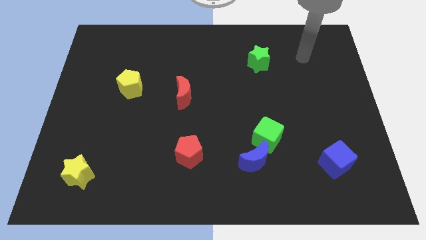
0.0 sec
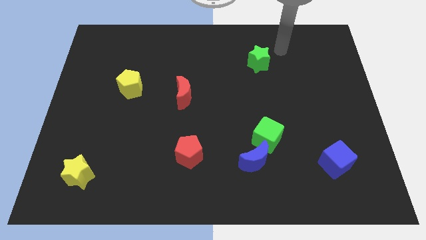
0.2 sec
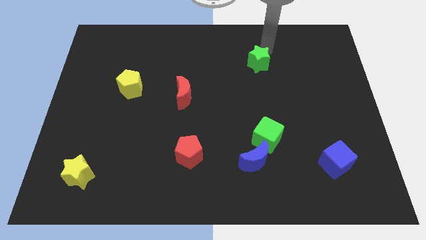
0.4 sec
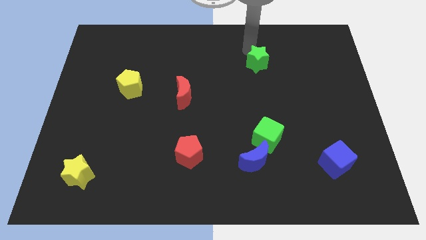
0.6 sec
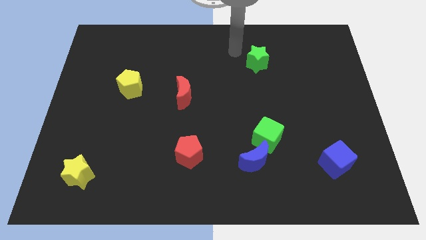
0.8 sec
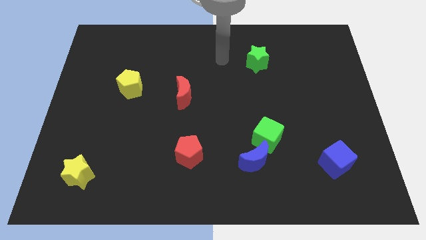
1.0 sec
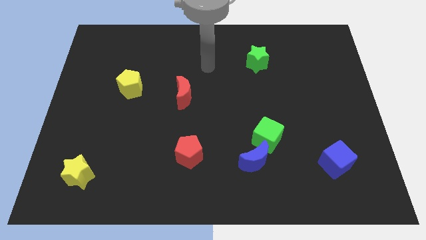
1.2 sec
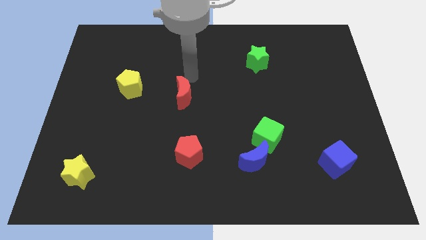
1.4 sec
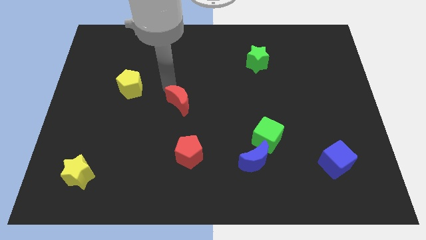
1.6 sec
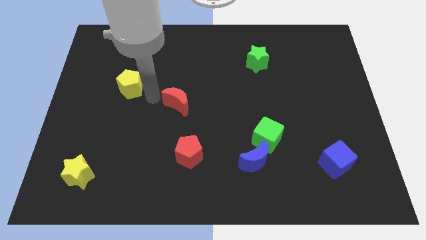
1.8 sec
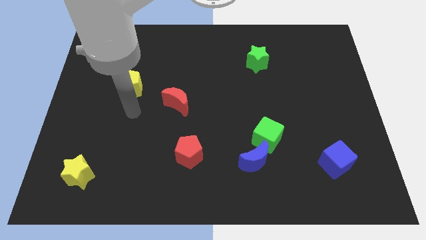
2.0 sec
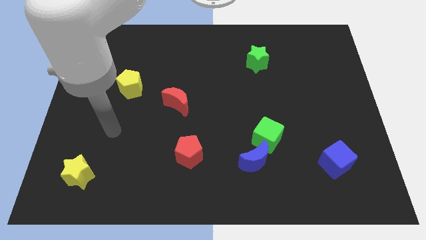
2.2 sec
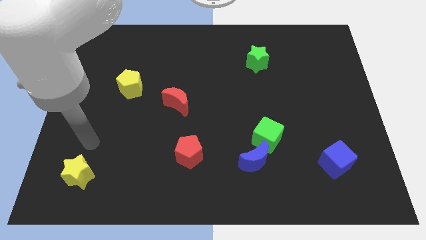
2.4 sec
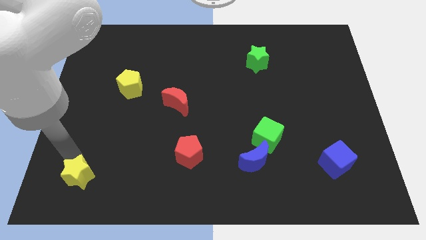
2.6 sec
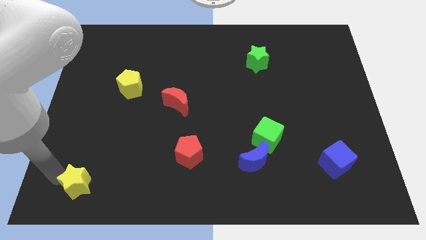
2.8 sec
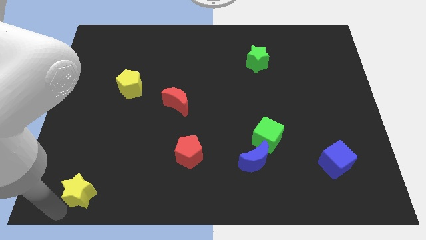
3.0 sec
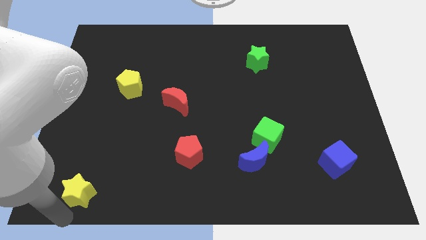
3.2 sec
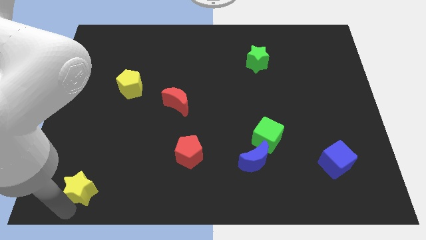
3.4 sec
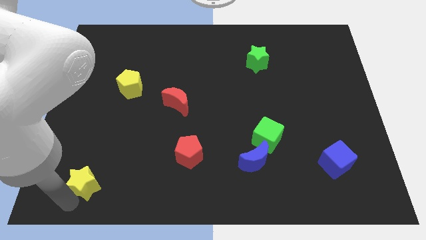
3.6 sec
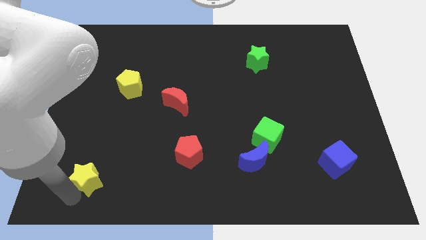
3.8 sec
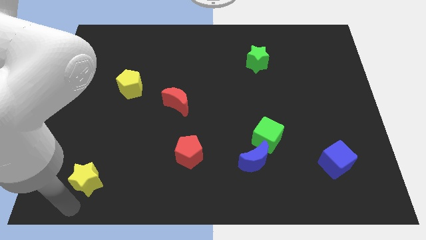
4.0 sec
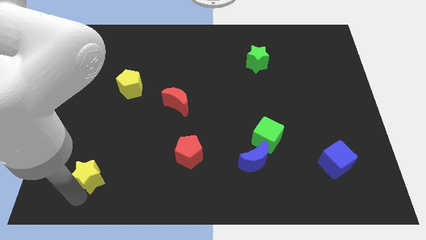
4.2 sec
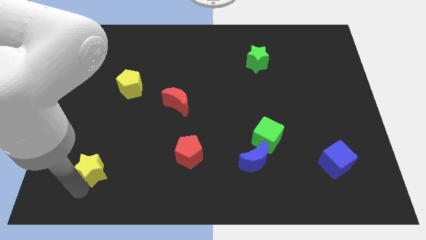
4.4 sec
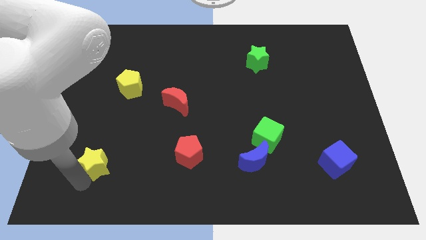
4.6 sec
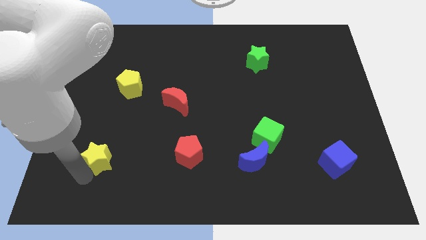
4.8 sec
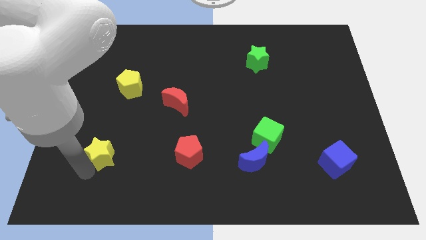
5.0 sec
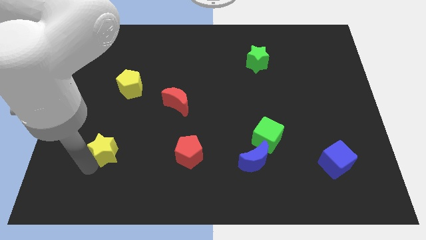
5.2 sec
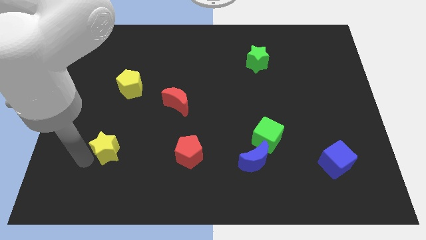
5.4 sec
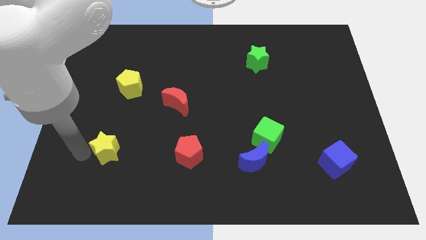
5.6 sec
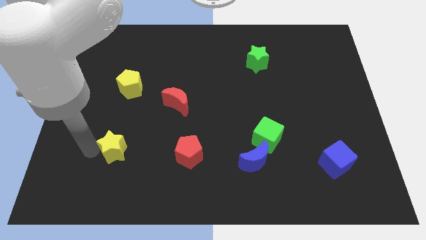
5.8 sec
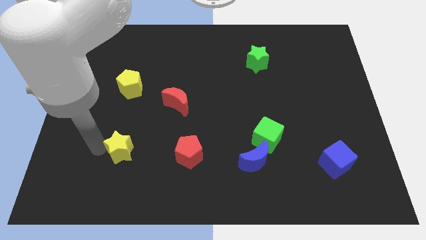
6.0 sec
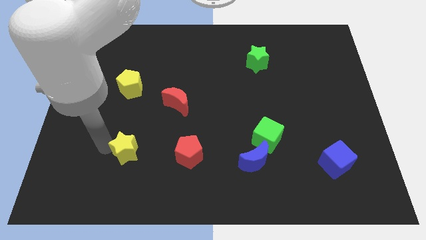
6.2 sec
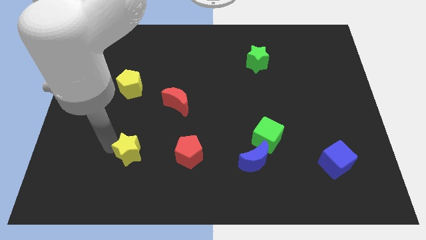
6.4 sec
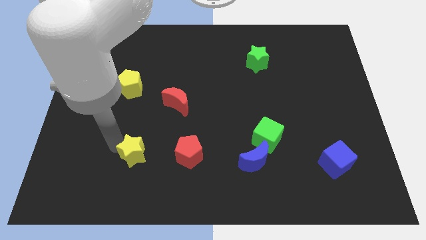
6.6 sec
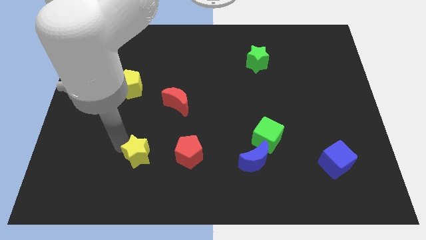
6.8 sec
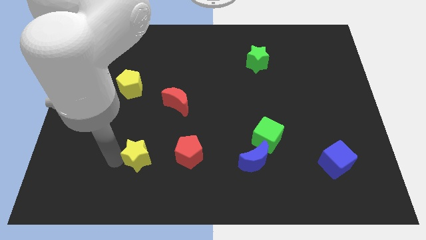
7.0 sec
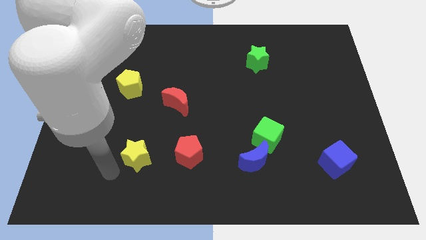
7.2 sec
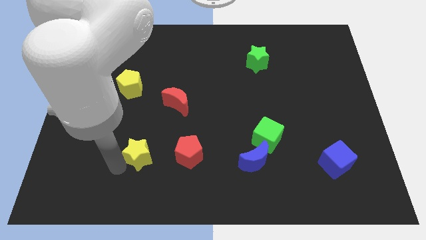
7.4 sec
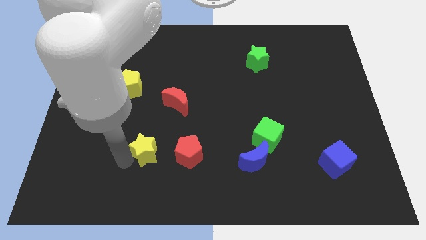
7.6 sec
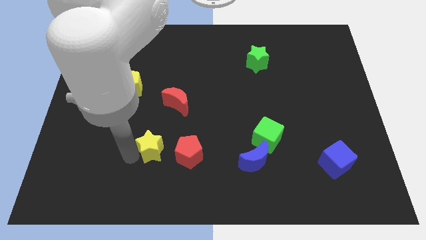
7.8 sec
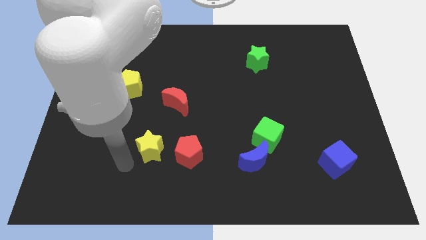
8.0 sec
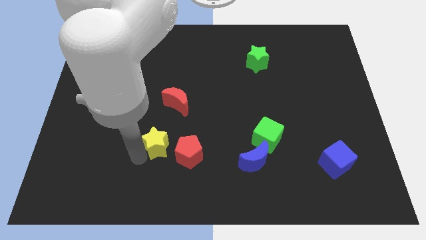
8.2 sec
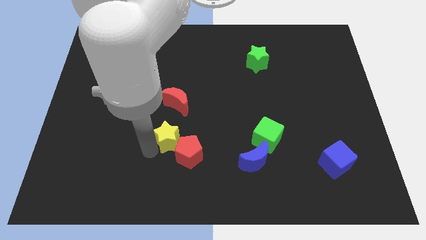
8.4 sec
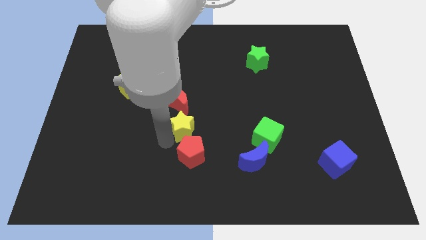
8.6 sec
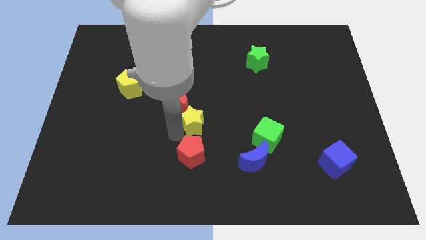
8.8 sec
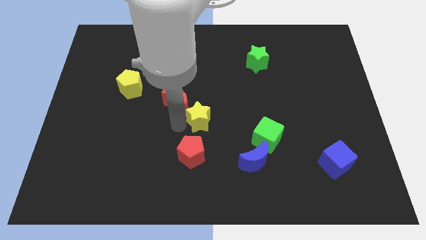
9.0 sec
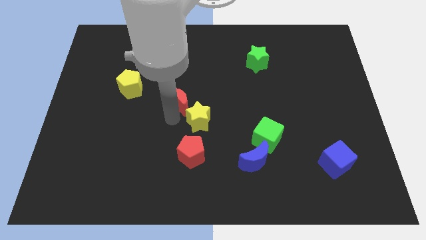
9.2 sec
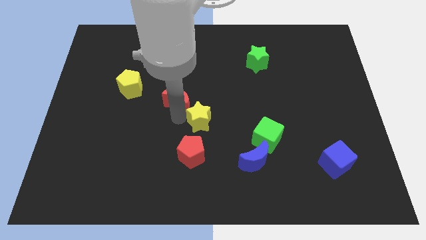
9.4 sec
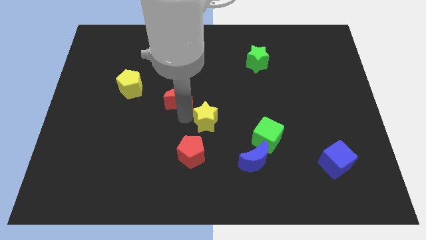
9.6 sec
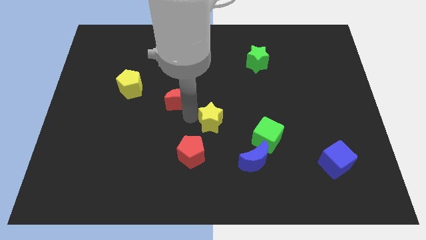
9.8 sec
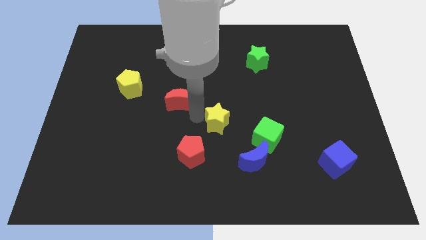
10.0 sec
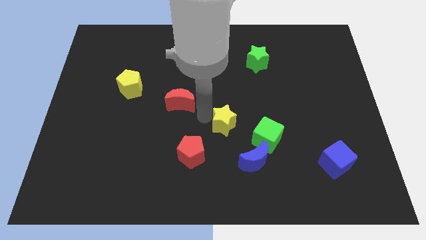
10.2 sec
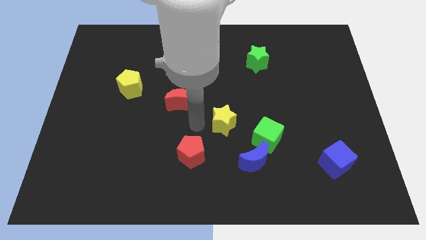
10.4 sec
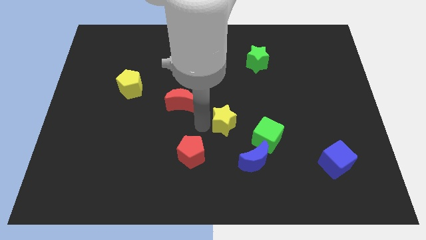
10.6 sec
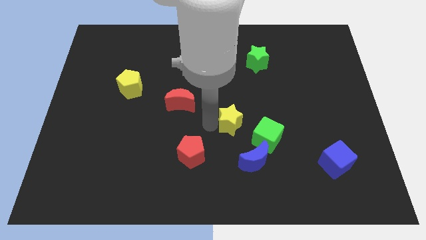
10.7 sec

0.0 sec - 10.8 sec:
move the yellow star to the top of the blue moon

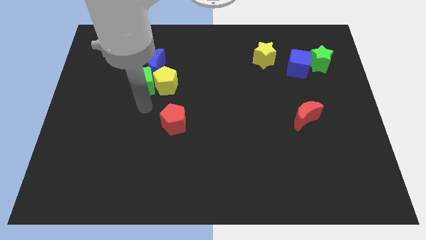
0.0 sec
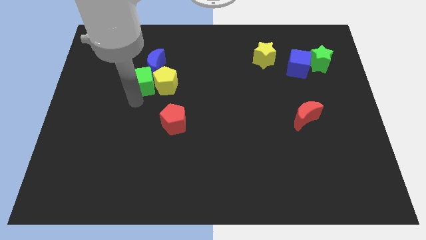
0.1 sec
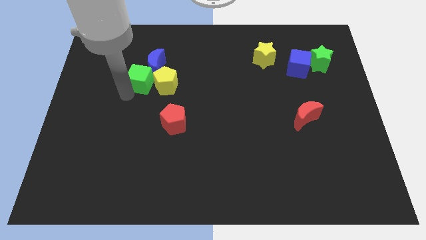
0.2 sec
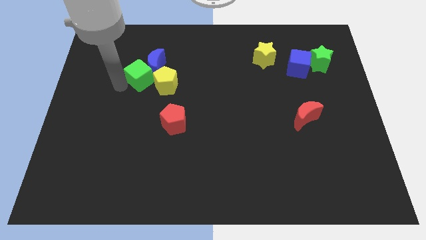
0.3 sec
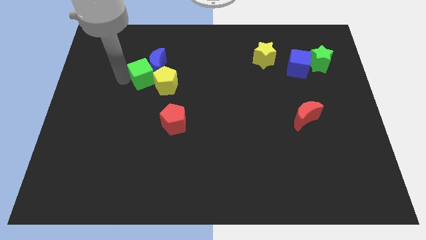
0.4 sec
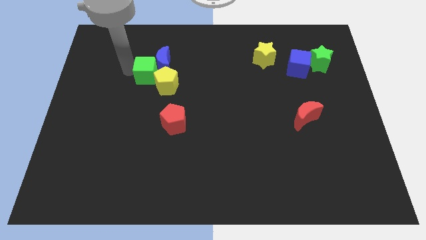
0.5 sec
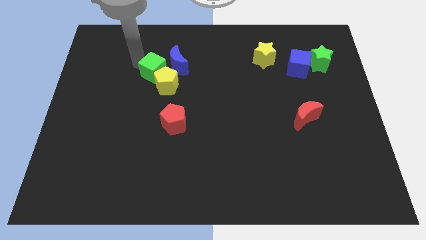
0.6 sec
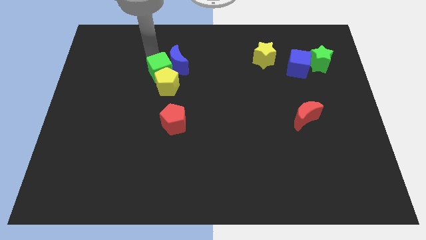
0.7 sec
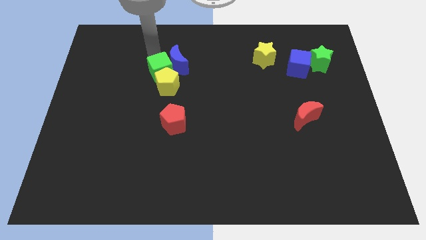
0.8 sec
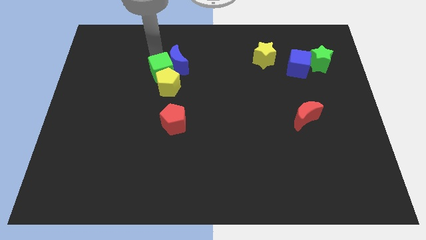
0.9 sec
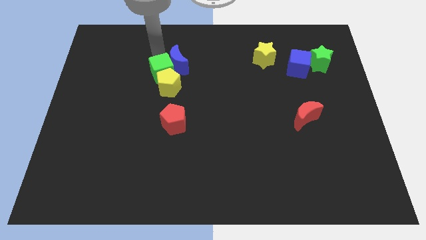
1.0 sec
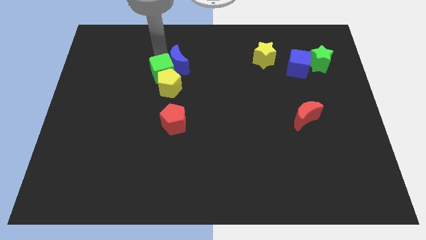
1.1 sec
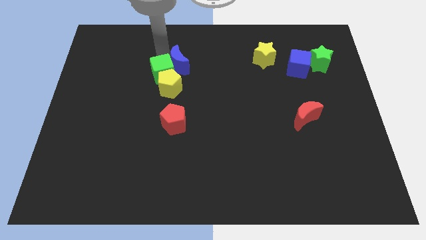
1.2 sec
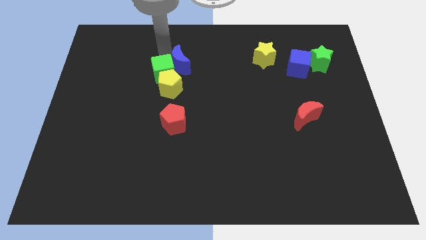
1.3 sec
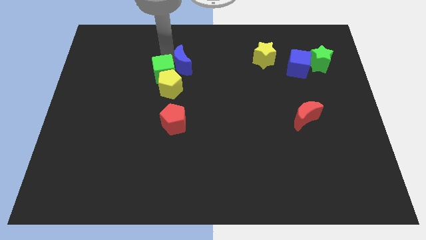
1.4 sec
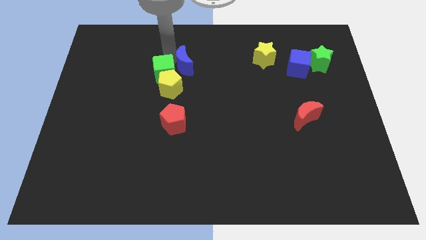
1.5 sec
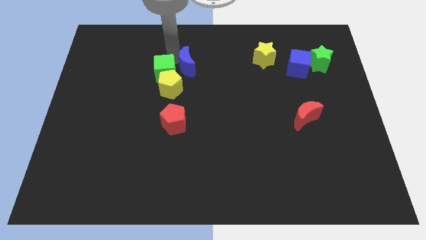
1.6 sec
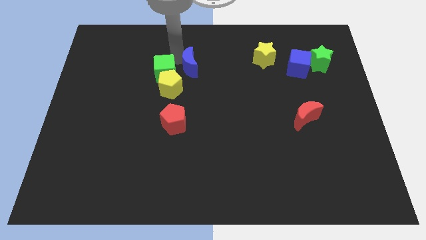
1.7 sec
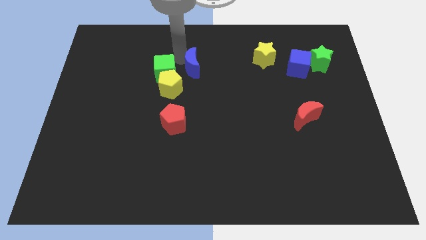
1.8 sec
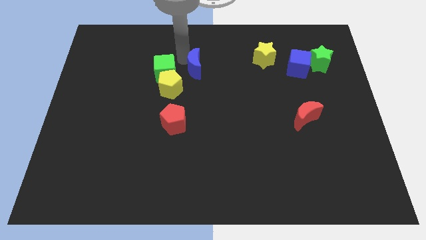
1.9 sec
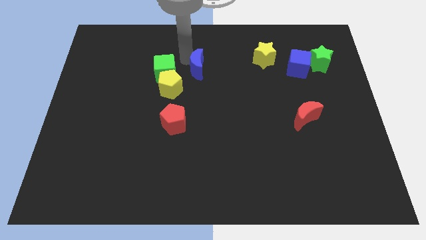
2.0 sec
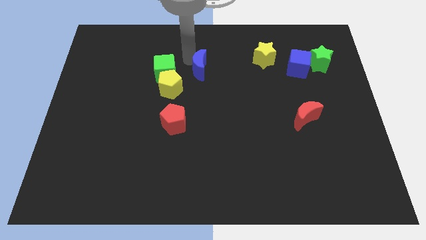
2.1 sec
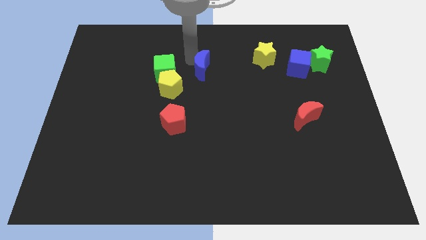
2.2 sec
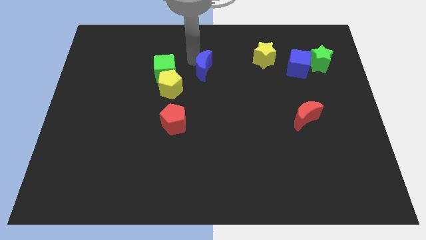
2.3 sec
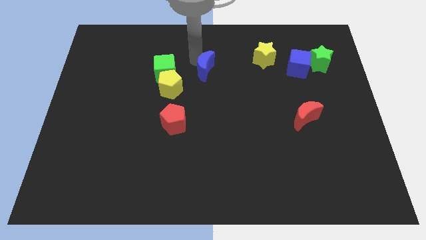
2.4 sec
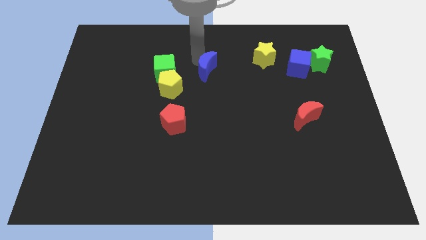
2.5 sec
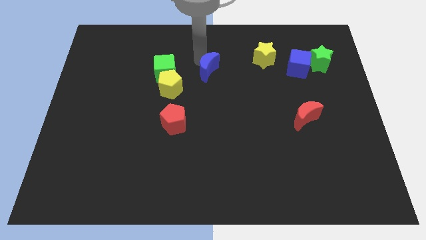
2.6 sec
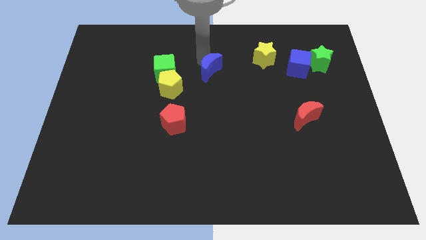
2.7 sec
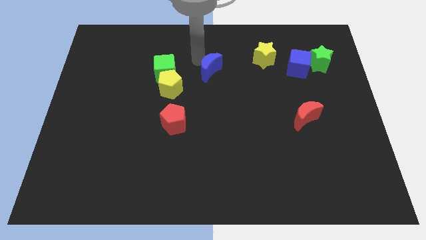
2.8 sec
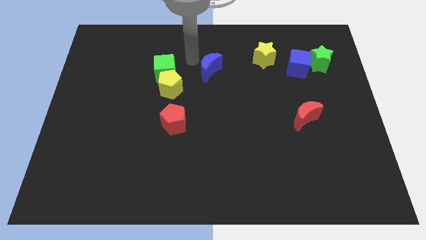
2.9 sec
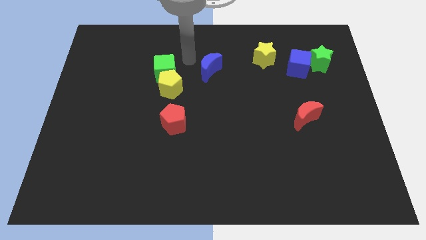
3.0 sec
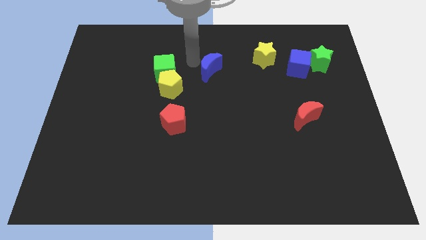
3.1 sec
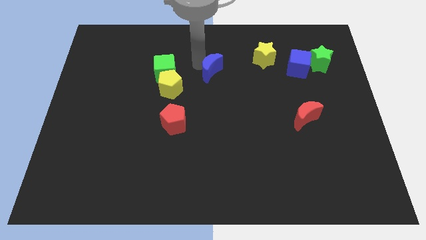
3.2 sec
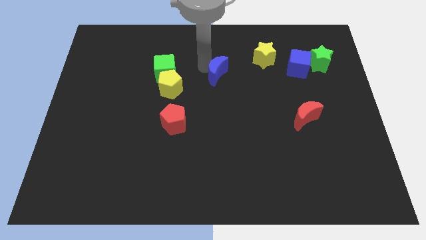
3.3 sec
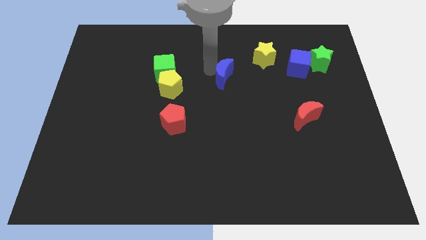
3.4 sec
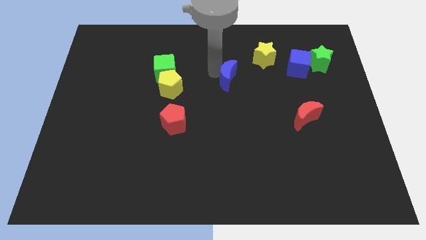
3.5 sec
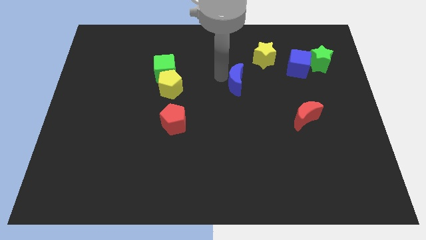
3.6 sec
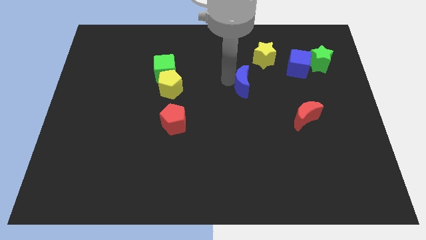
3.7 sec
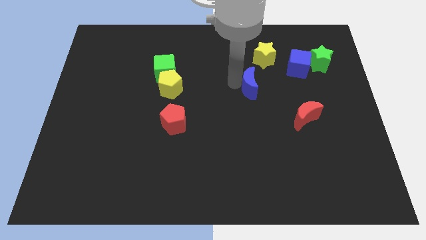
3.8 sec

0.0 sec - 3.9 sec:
push the blue moon to the bottom of the yellow star
